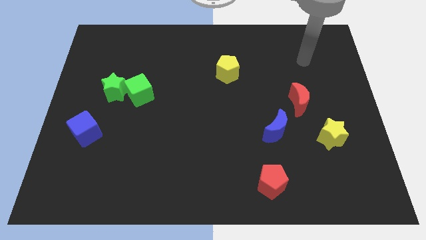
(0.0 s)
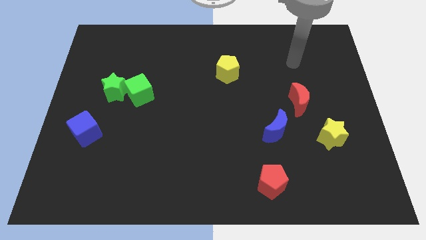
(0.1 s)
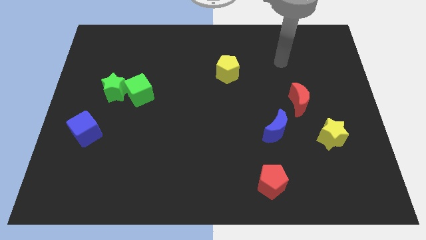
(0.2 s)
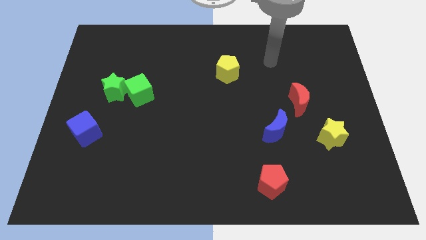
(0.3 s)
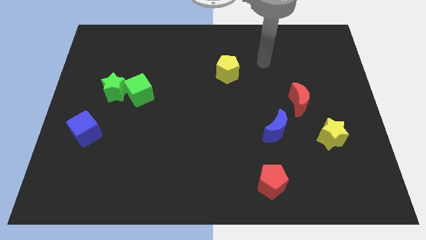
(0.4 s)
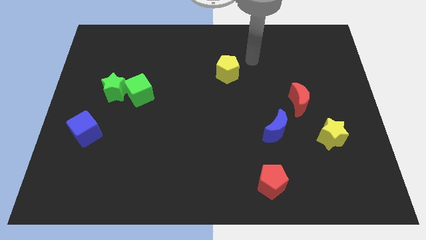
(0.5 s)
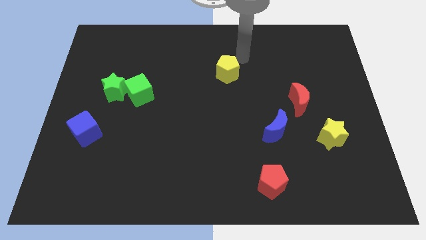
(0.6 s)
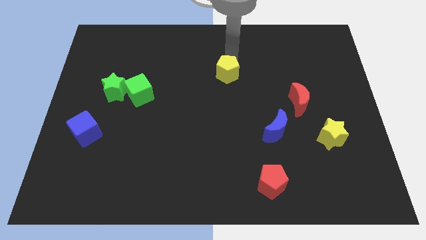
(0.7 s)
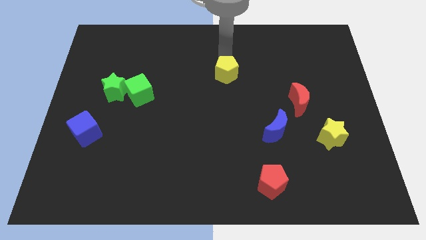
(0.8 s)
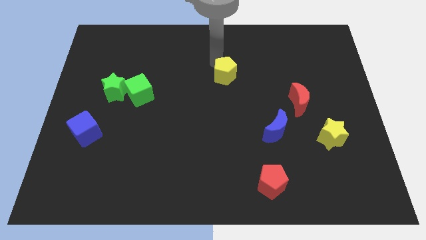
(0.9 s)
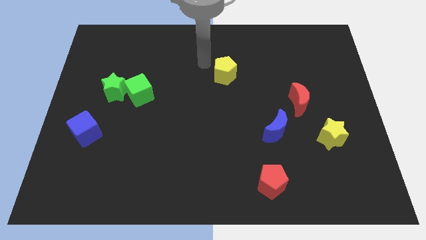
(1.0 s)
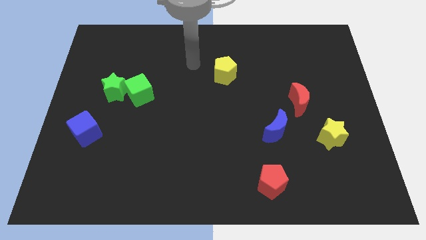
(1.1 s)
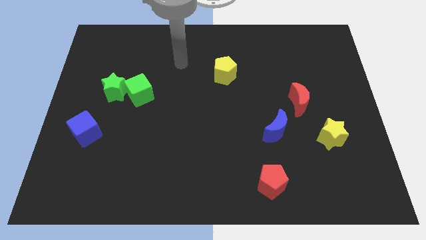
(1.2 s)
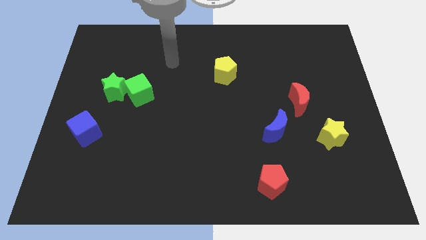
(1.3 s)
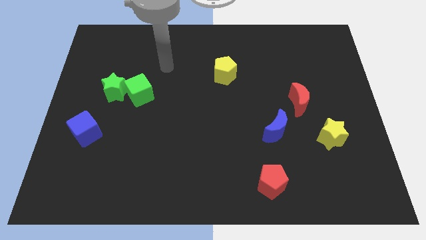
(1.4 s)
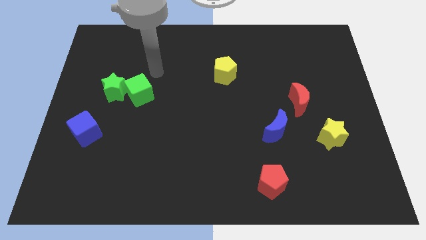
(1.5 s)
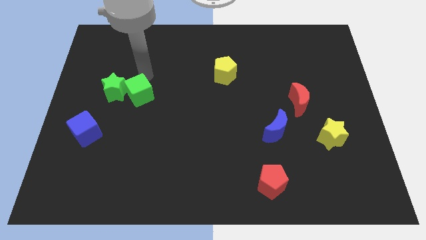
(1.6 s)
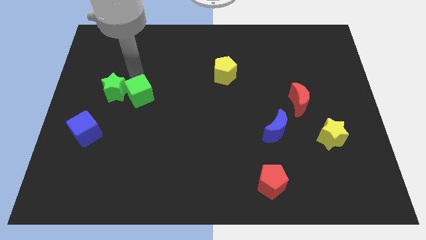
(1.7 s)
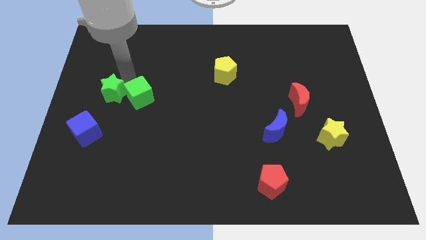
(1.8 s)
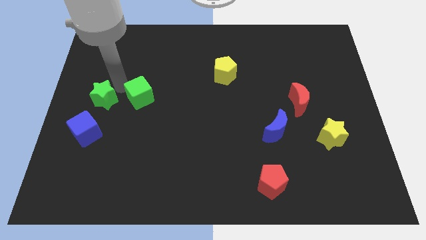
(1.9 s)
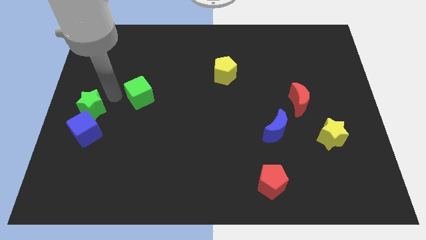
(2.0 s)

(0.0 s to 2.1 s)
move the green cube away from the green star

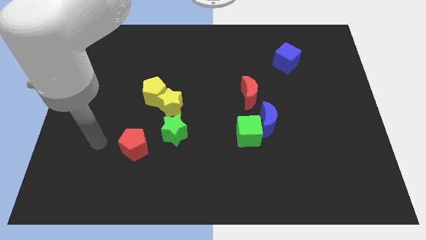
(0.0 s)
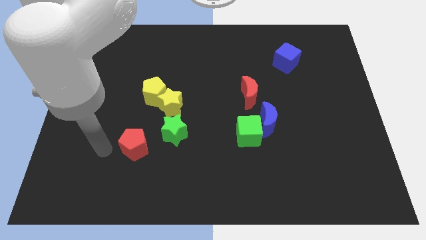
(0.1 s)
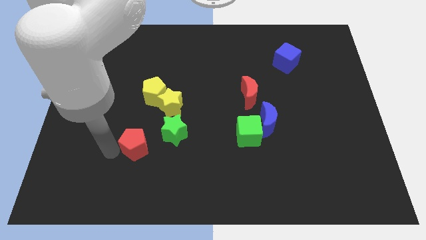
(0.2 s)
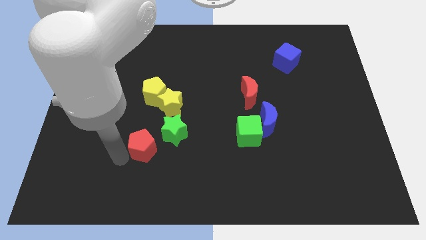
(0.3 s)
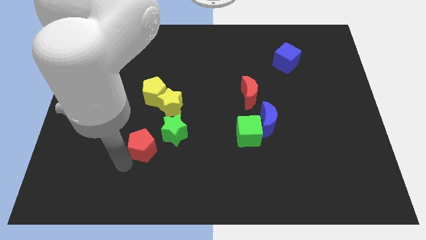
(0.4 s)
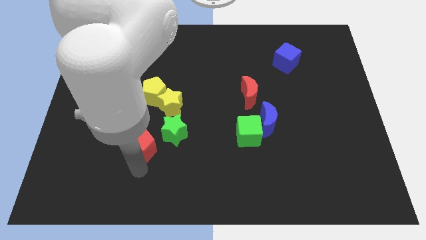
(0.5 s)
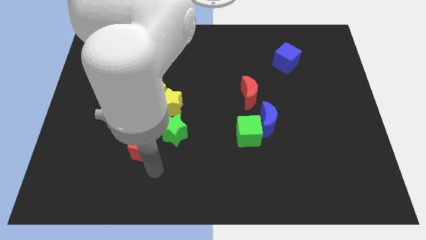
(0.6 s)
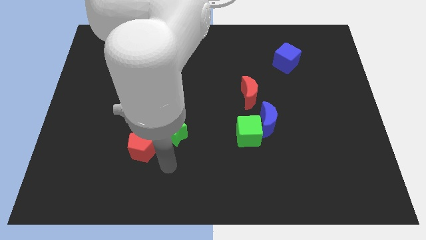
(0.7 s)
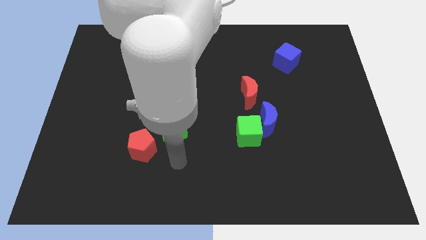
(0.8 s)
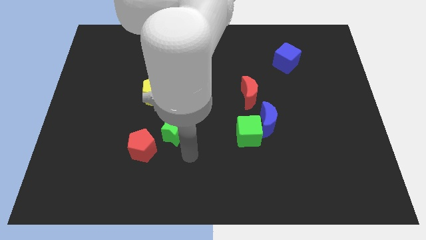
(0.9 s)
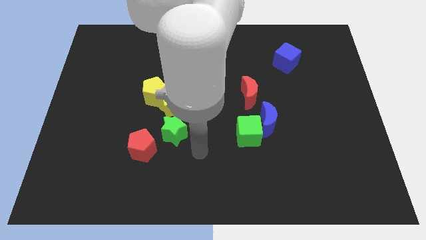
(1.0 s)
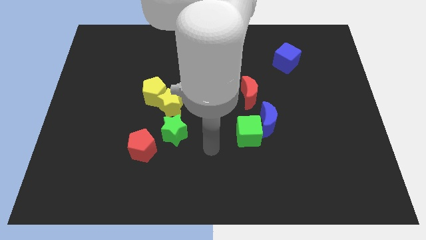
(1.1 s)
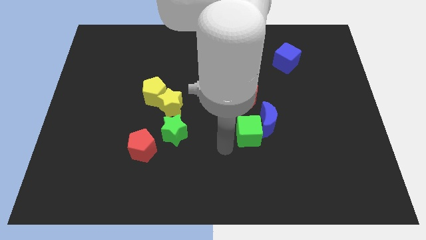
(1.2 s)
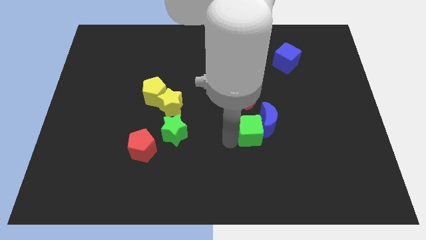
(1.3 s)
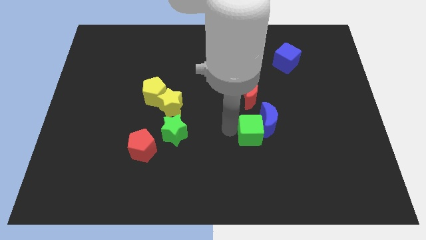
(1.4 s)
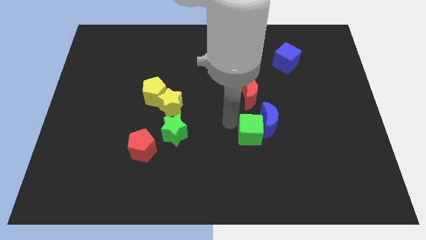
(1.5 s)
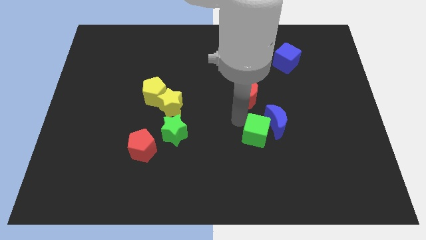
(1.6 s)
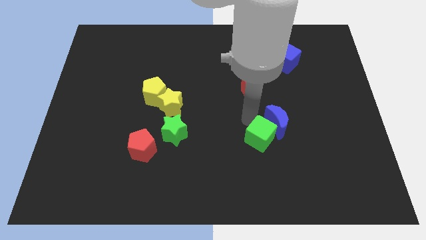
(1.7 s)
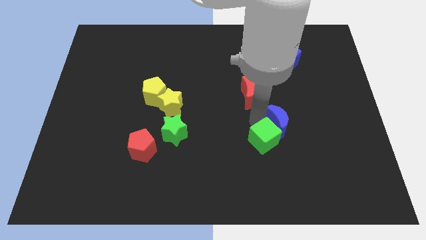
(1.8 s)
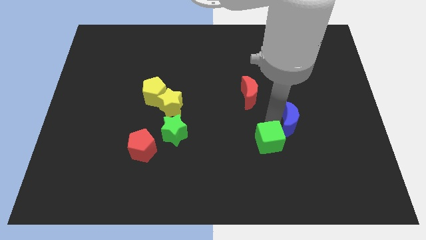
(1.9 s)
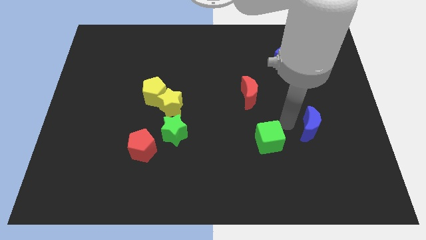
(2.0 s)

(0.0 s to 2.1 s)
move the green cube away from the blue moon

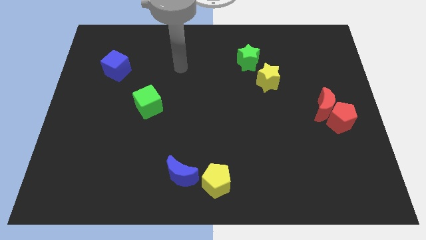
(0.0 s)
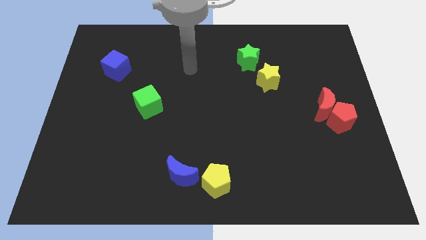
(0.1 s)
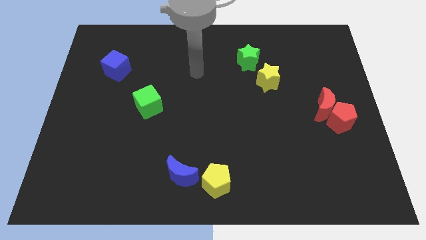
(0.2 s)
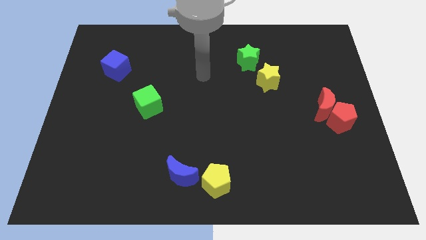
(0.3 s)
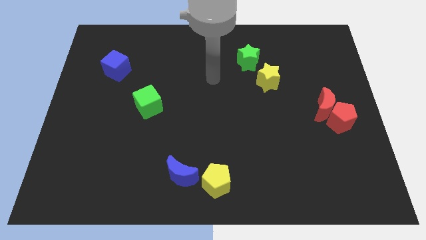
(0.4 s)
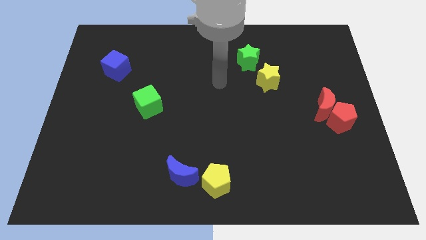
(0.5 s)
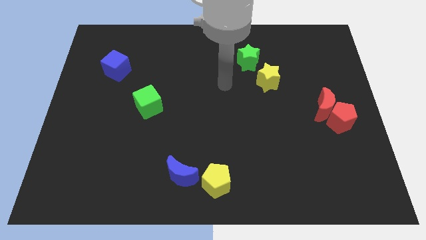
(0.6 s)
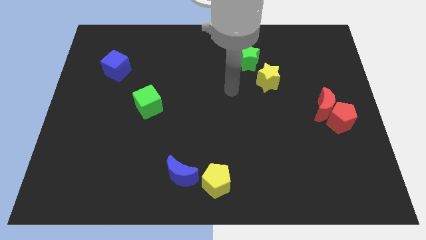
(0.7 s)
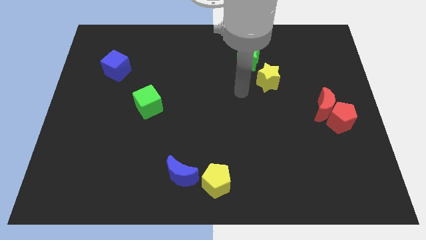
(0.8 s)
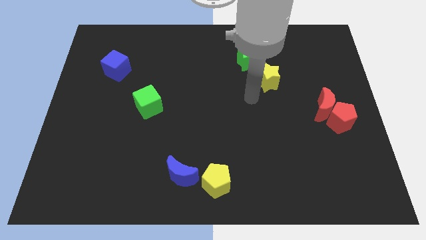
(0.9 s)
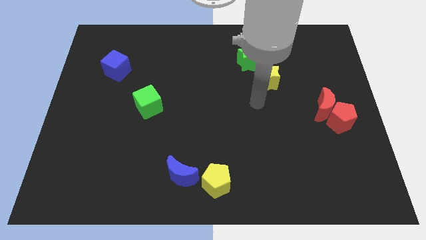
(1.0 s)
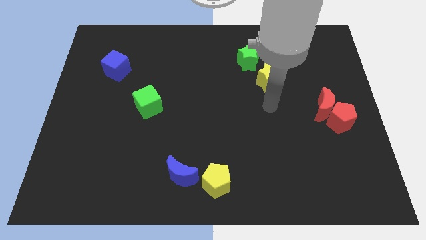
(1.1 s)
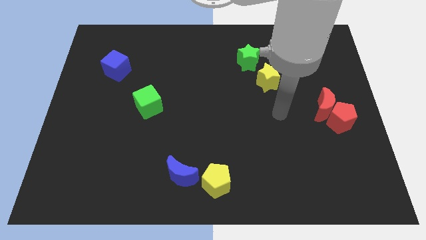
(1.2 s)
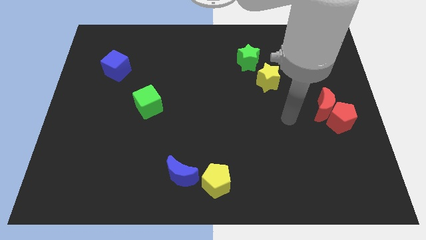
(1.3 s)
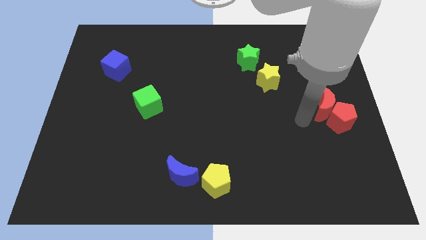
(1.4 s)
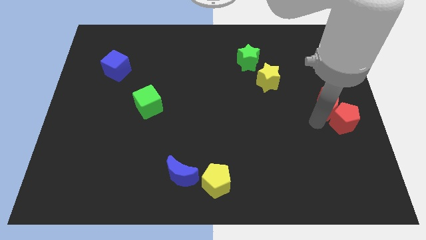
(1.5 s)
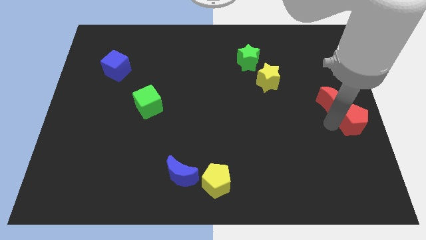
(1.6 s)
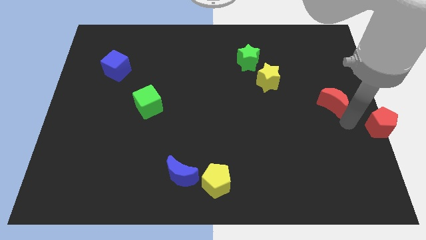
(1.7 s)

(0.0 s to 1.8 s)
separate the red moon from the red pentagon

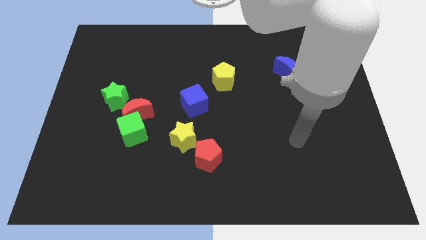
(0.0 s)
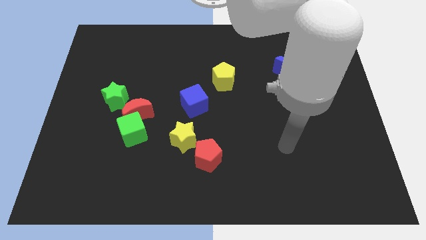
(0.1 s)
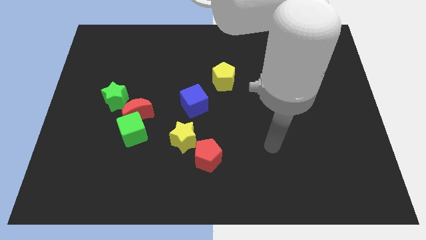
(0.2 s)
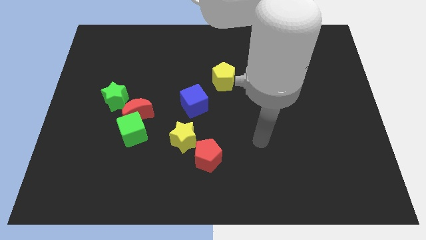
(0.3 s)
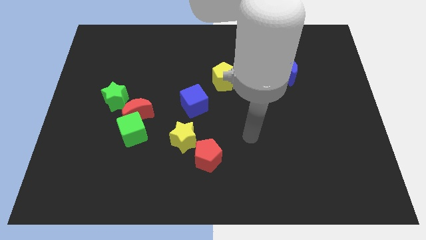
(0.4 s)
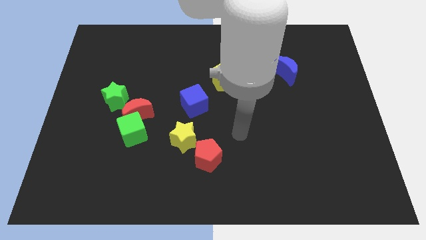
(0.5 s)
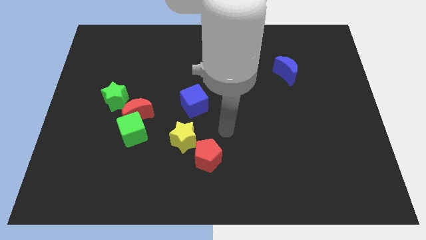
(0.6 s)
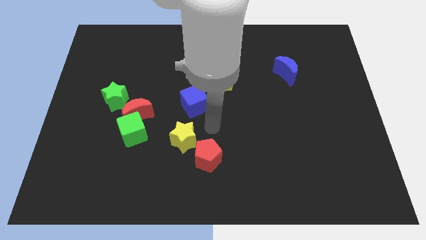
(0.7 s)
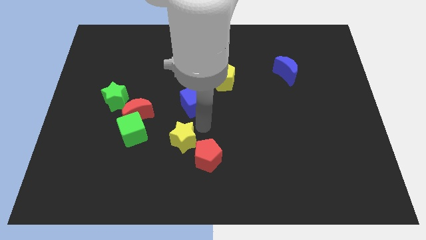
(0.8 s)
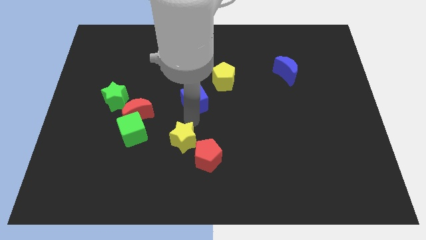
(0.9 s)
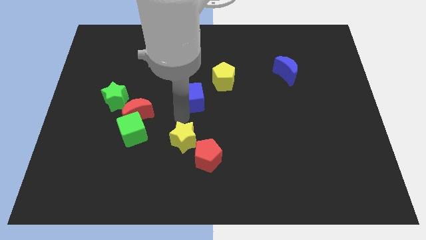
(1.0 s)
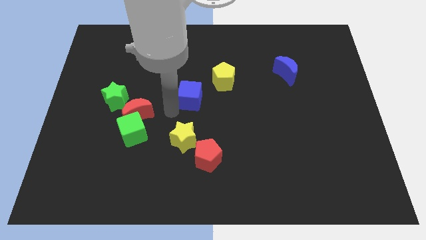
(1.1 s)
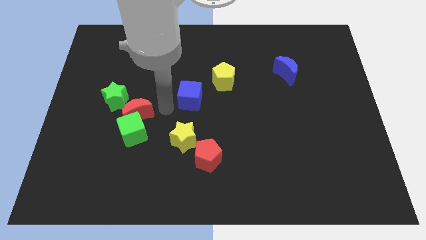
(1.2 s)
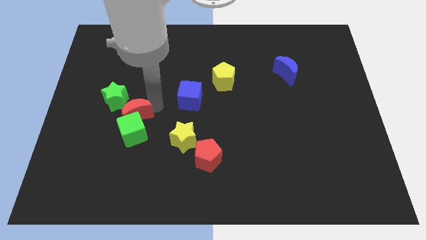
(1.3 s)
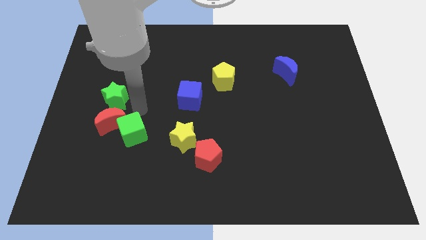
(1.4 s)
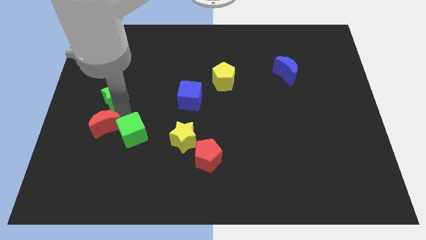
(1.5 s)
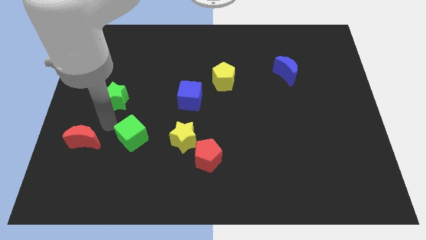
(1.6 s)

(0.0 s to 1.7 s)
separate the green cube from the red moon

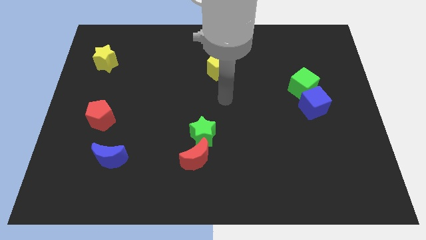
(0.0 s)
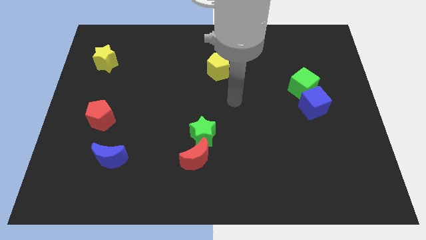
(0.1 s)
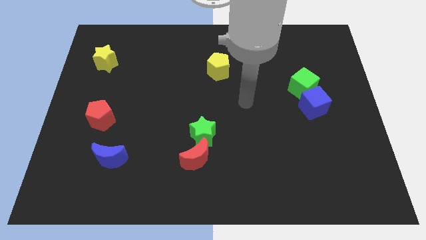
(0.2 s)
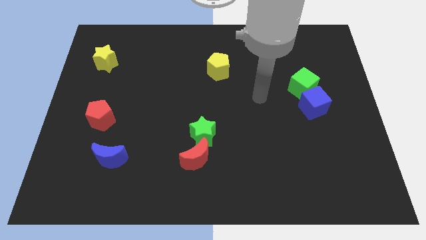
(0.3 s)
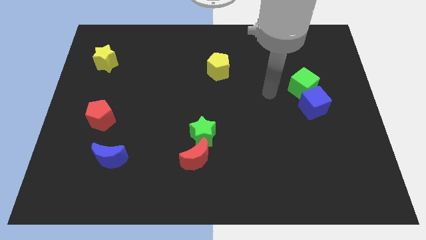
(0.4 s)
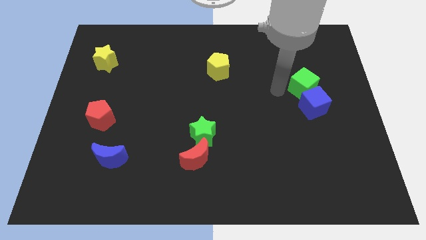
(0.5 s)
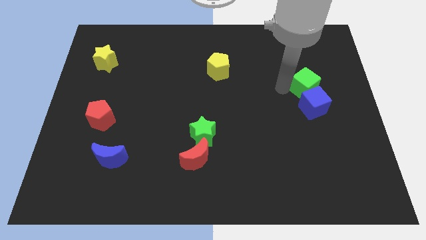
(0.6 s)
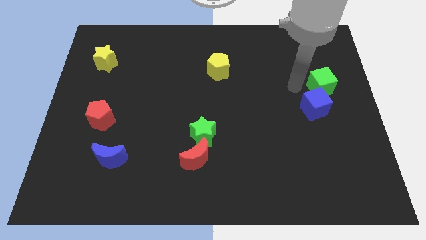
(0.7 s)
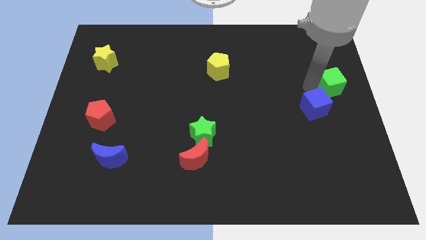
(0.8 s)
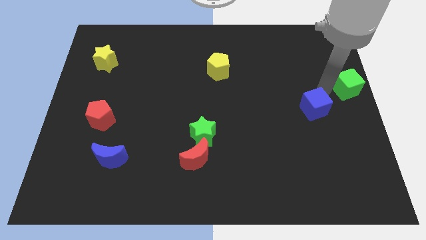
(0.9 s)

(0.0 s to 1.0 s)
move the blue cube away from the green cube

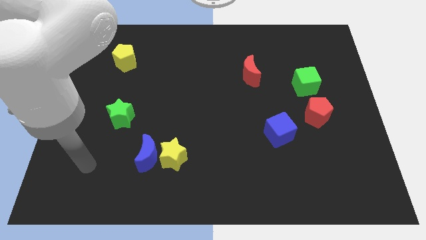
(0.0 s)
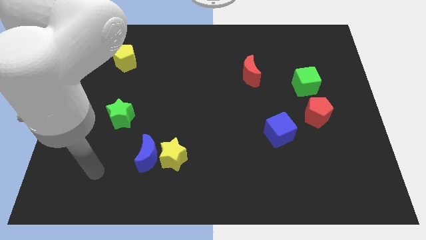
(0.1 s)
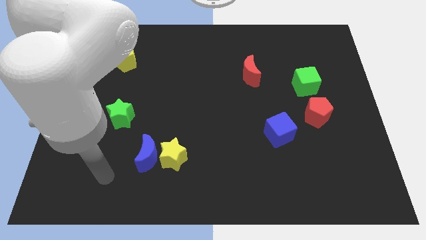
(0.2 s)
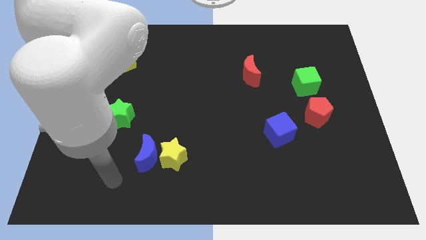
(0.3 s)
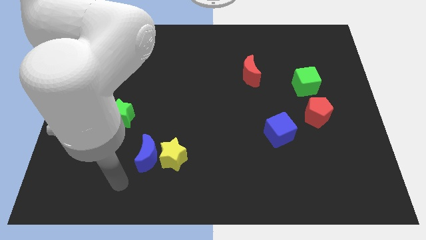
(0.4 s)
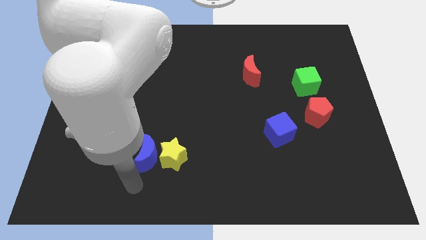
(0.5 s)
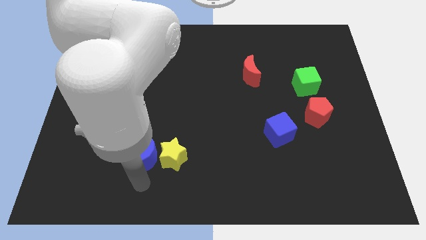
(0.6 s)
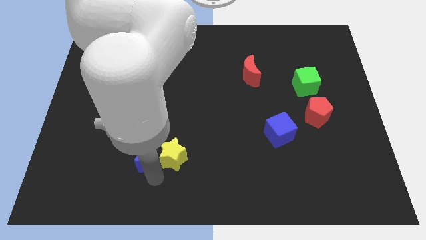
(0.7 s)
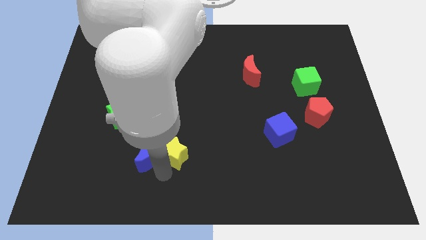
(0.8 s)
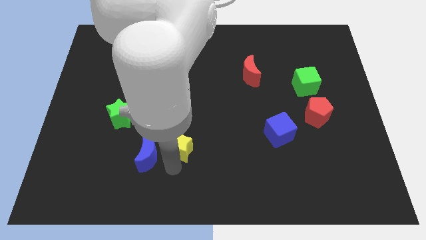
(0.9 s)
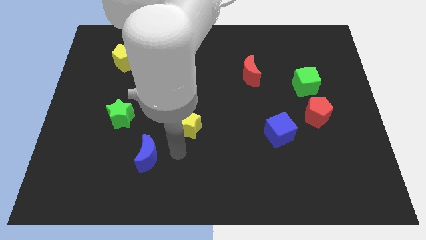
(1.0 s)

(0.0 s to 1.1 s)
separate the blue moon from the yellow star
